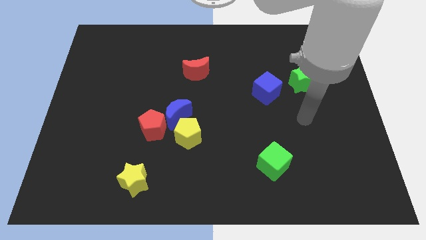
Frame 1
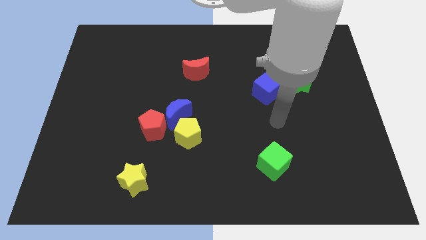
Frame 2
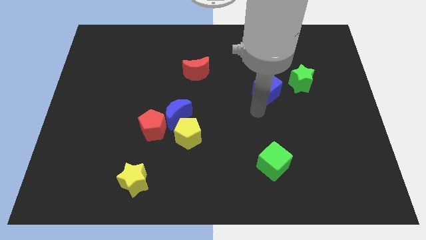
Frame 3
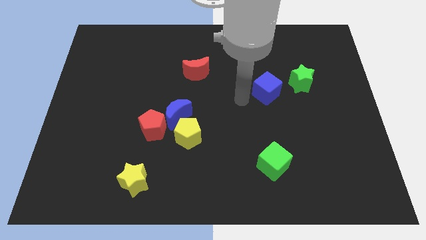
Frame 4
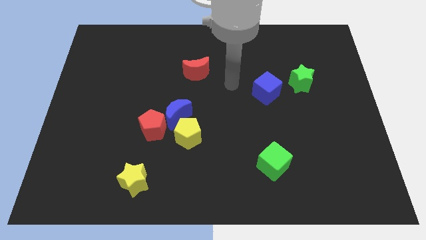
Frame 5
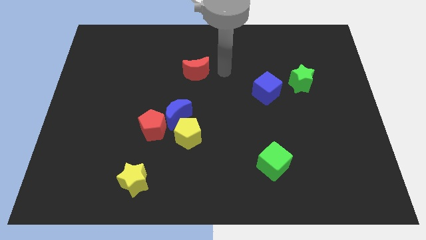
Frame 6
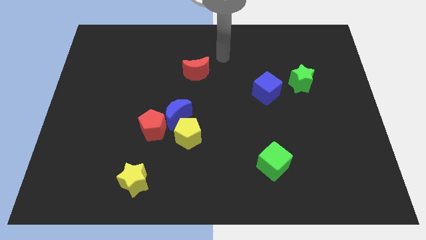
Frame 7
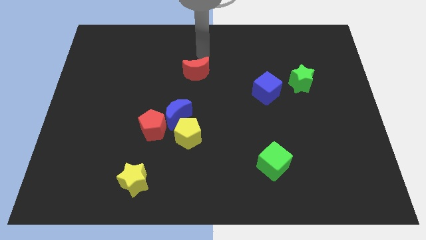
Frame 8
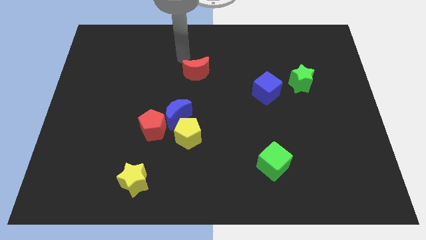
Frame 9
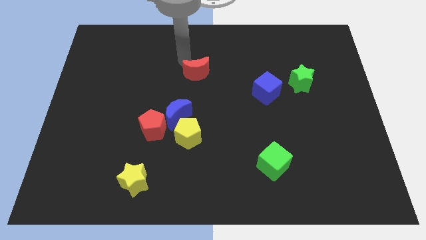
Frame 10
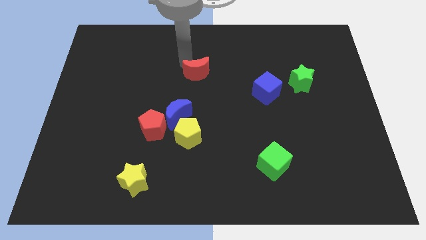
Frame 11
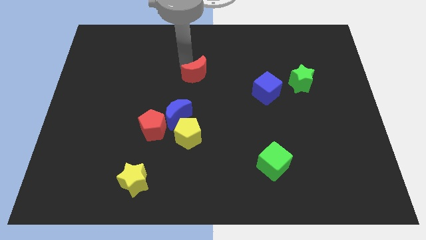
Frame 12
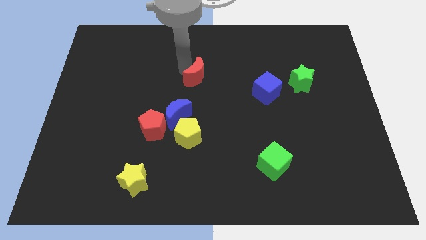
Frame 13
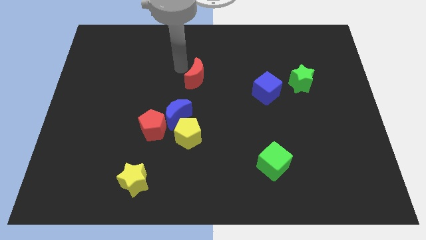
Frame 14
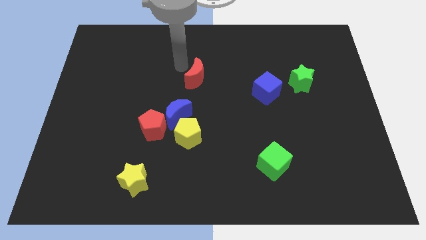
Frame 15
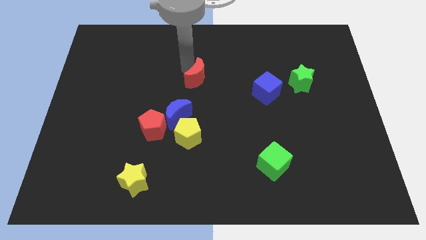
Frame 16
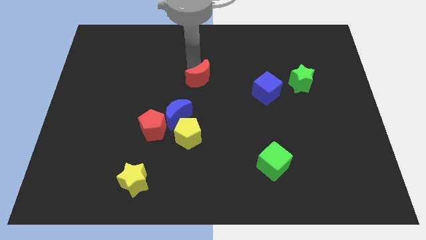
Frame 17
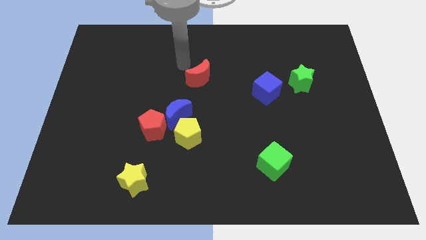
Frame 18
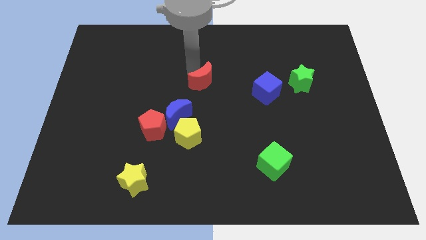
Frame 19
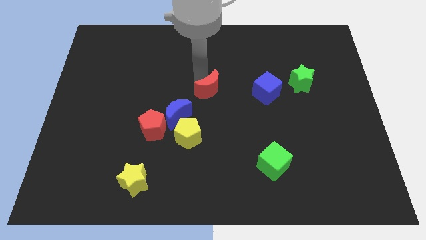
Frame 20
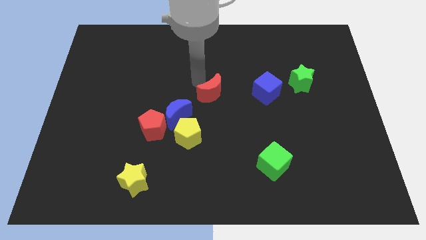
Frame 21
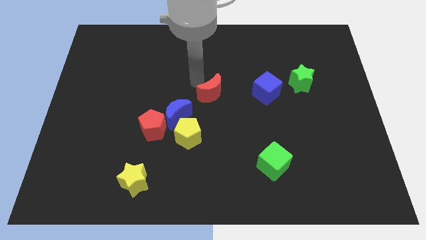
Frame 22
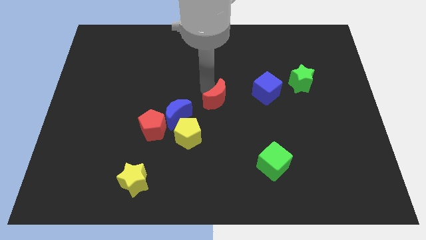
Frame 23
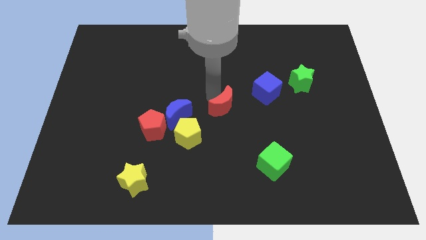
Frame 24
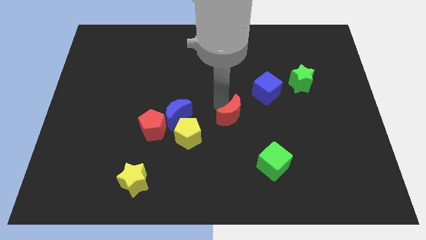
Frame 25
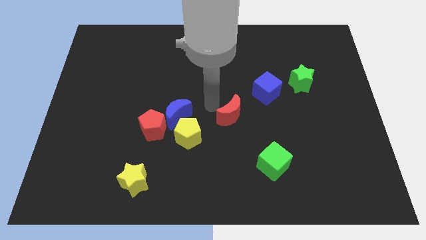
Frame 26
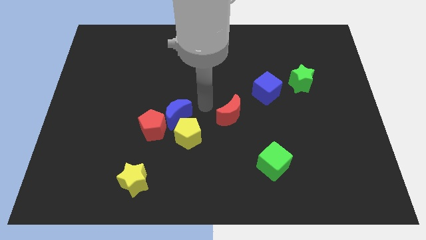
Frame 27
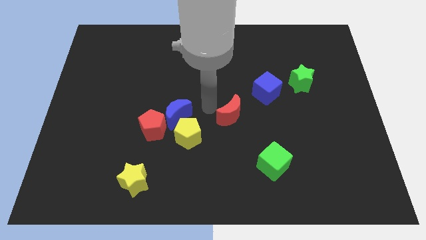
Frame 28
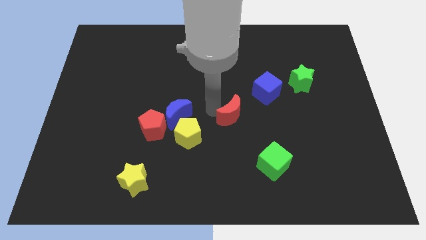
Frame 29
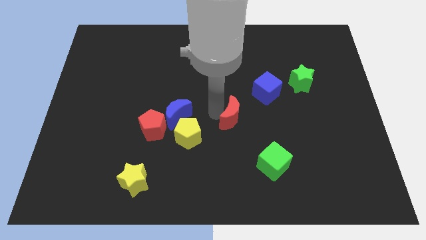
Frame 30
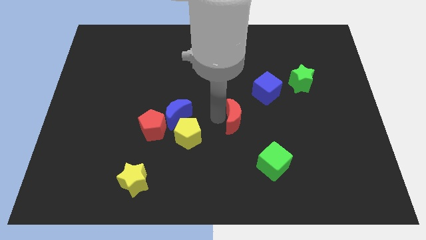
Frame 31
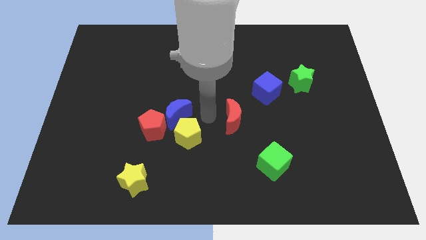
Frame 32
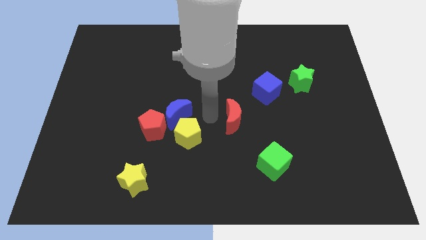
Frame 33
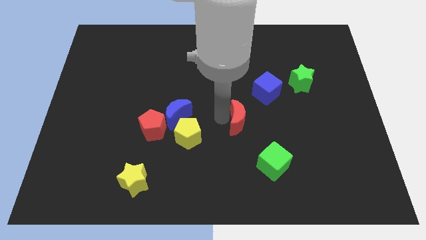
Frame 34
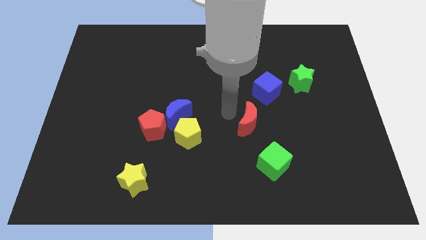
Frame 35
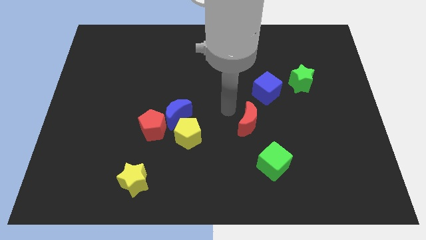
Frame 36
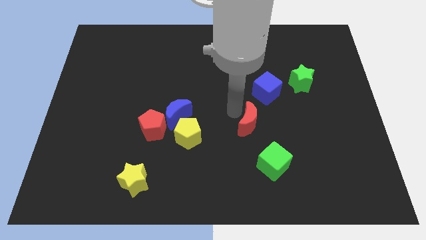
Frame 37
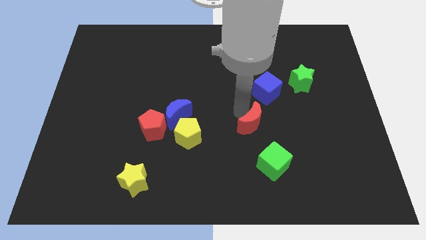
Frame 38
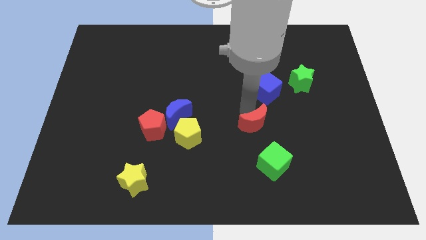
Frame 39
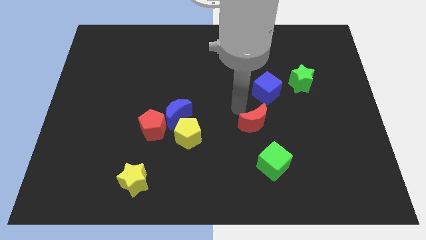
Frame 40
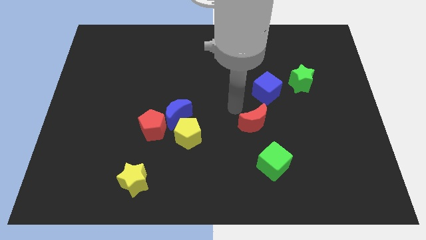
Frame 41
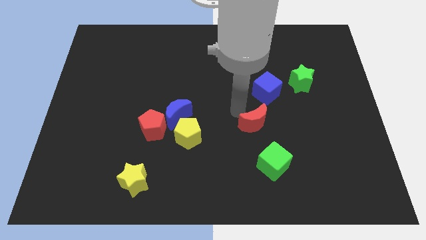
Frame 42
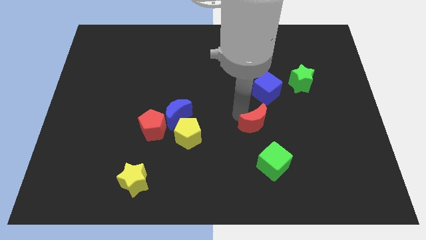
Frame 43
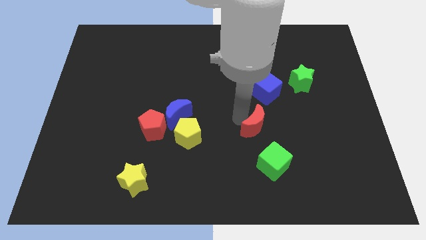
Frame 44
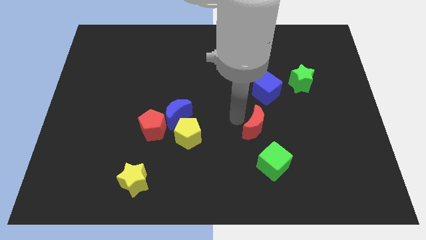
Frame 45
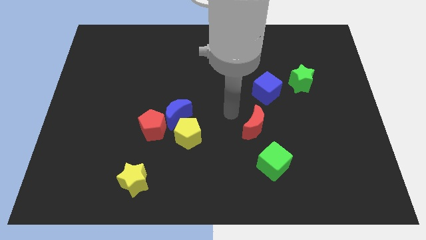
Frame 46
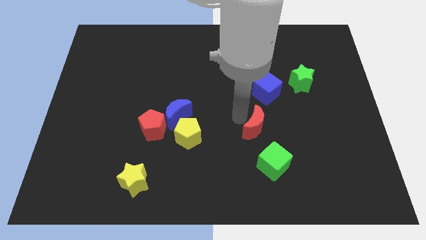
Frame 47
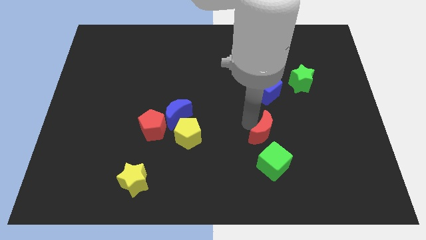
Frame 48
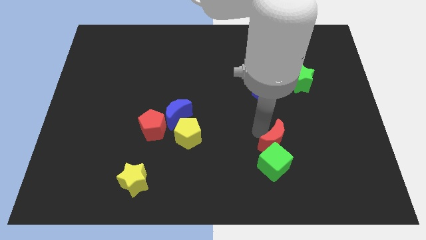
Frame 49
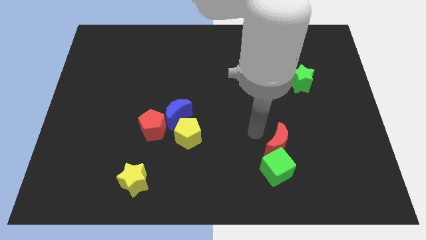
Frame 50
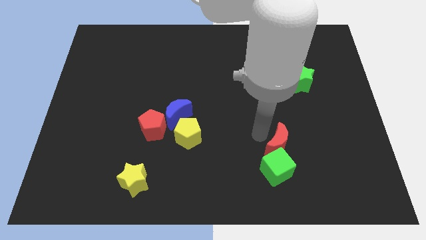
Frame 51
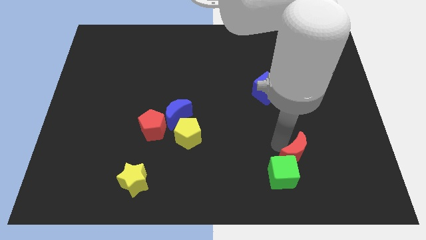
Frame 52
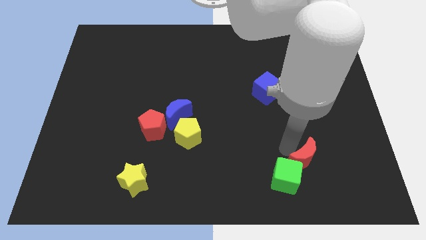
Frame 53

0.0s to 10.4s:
push the red moon right of the green cube

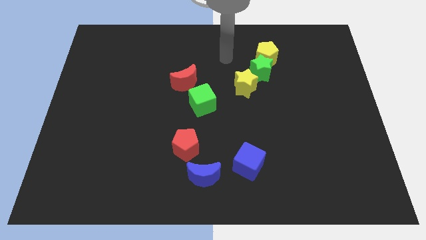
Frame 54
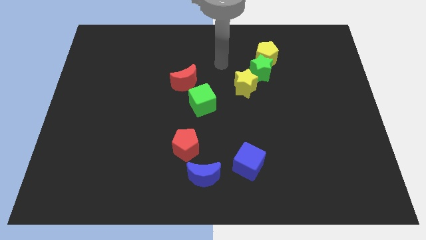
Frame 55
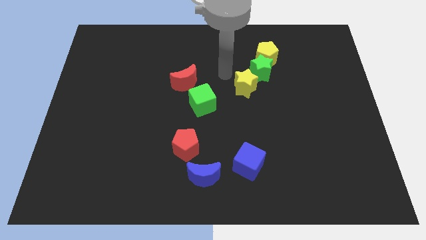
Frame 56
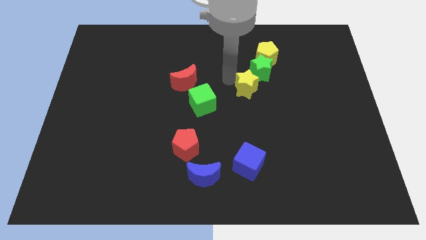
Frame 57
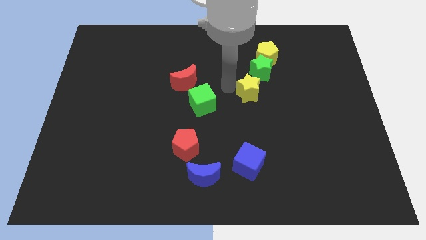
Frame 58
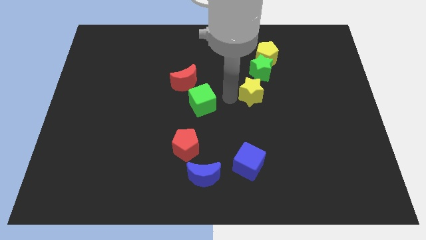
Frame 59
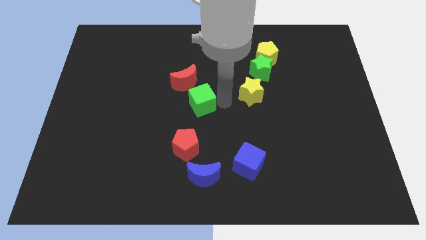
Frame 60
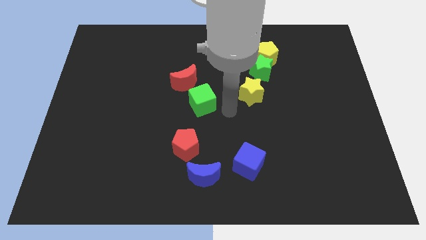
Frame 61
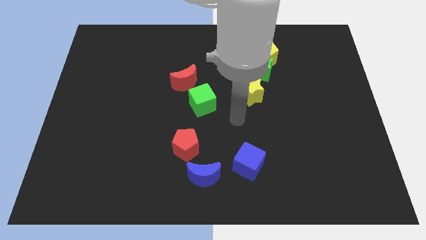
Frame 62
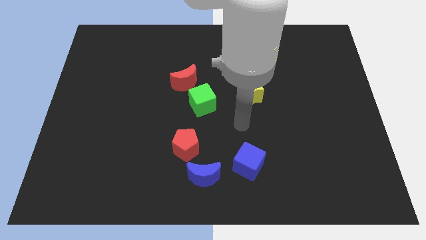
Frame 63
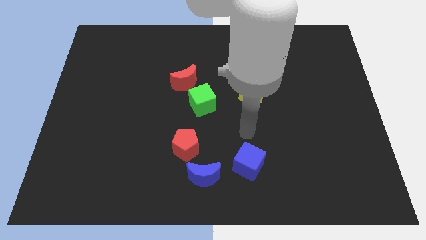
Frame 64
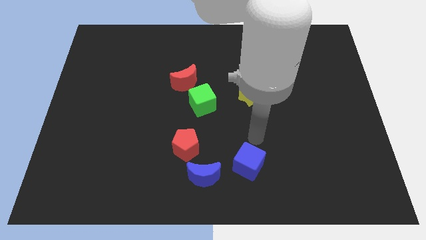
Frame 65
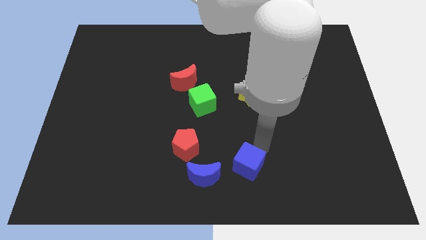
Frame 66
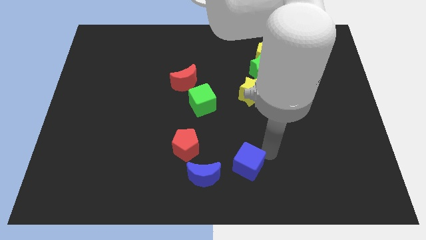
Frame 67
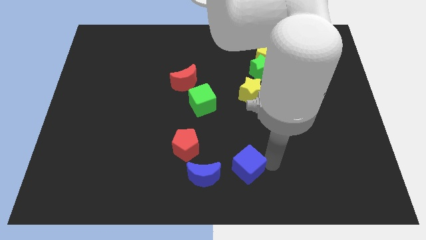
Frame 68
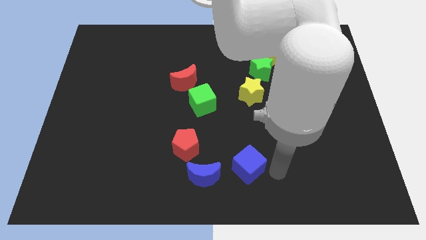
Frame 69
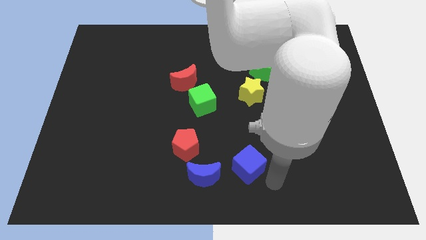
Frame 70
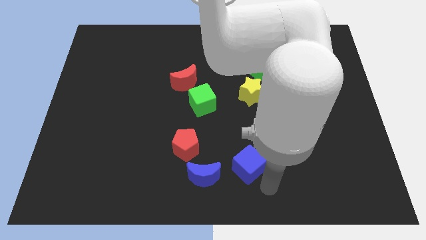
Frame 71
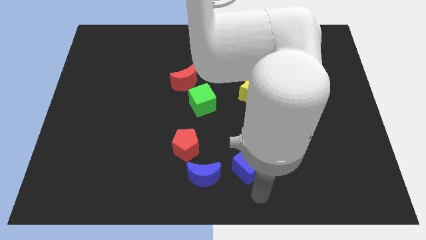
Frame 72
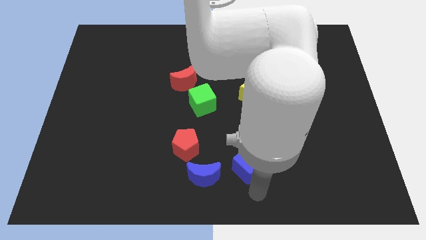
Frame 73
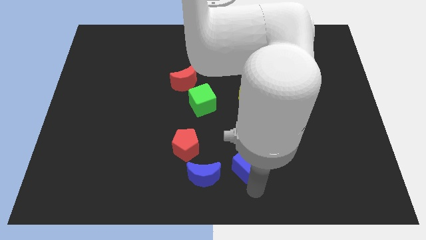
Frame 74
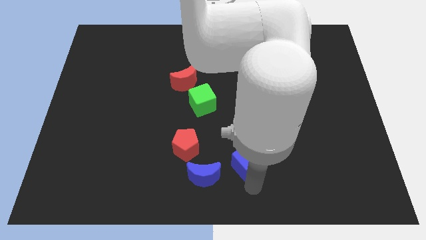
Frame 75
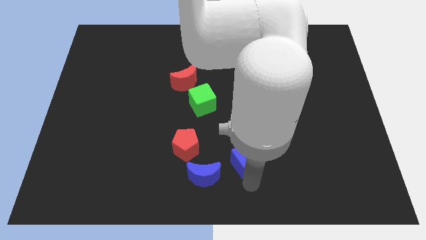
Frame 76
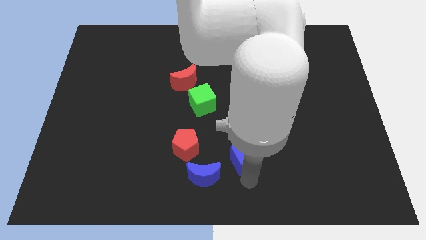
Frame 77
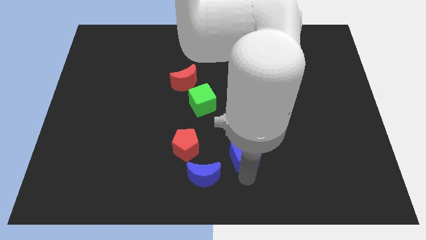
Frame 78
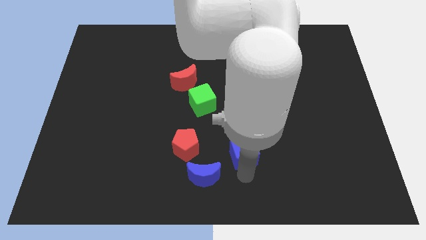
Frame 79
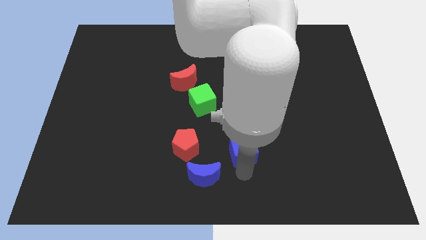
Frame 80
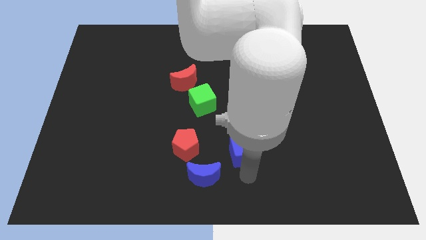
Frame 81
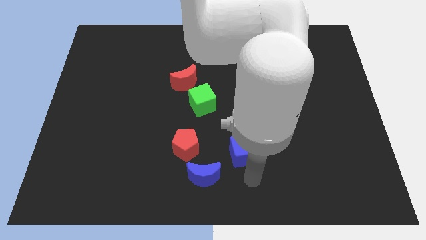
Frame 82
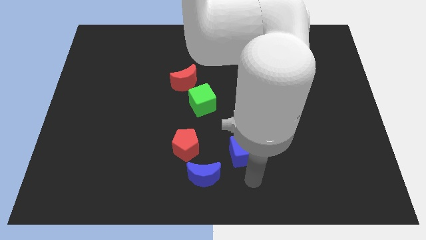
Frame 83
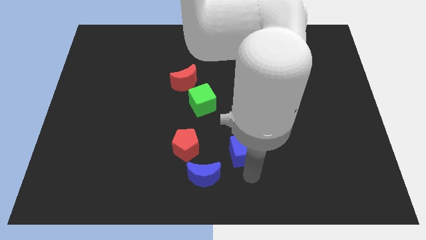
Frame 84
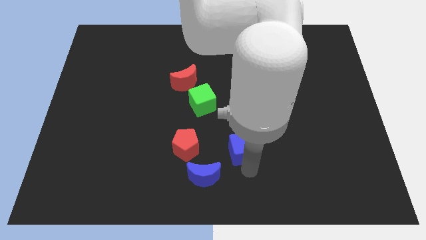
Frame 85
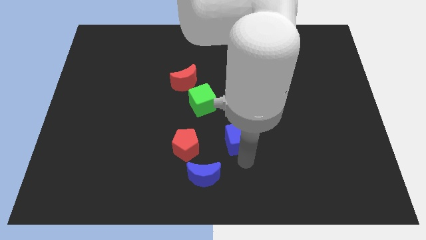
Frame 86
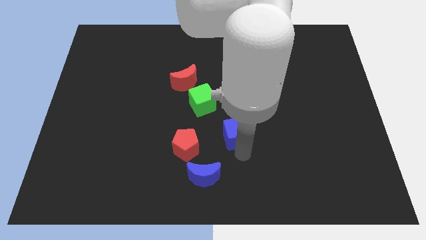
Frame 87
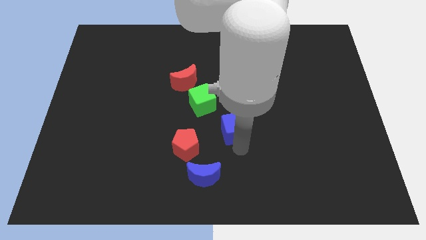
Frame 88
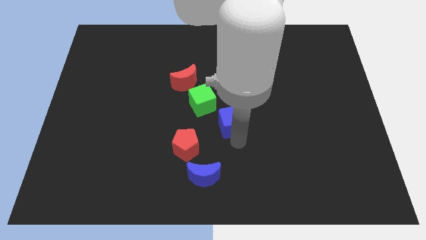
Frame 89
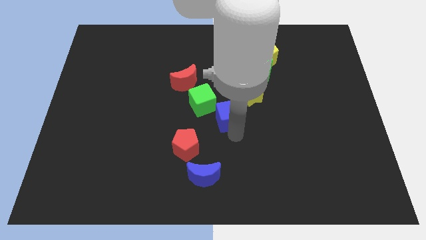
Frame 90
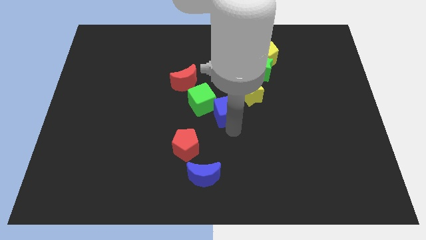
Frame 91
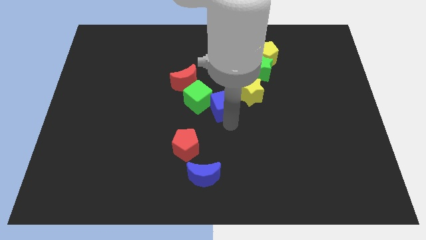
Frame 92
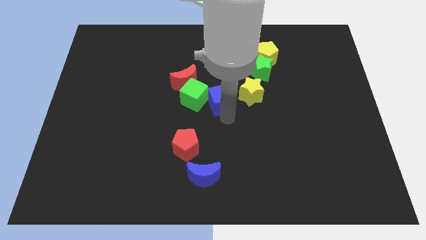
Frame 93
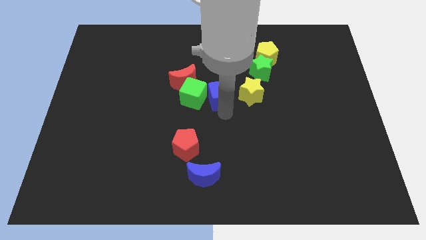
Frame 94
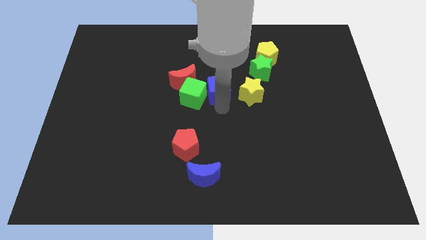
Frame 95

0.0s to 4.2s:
slide the blue cube to the right side of the red moon
